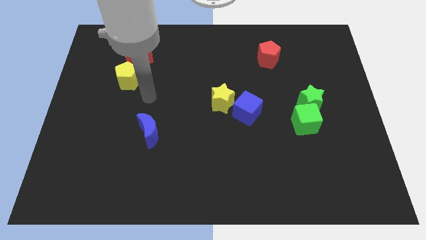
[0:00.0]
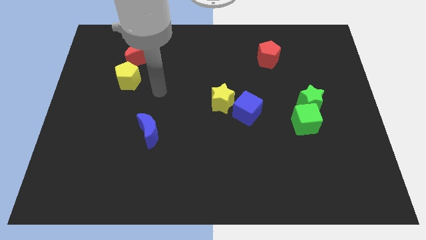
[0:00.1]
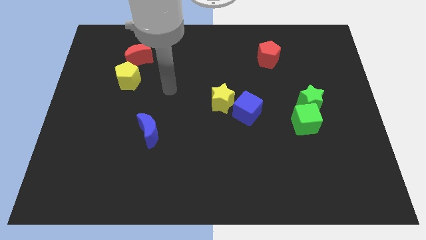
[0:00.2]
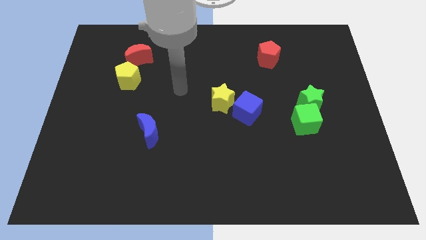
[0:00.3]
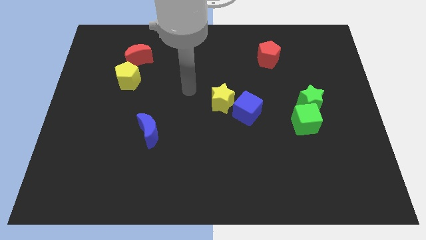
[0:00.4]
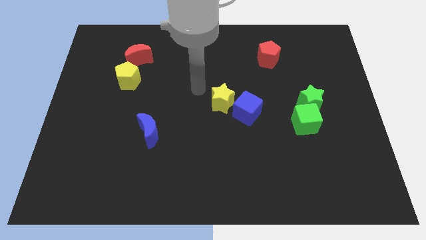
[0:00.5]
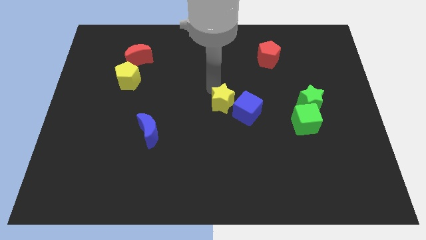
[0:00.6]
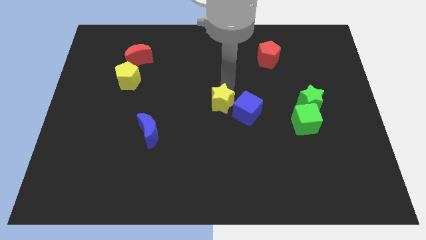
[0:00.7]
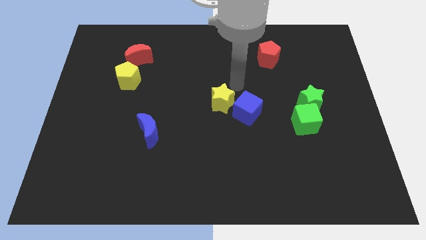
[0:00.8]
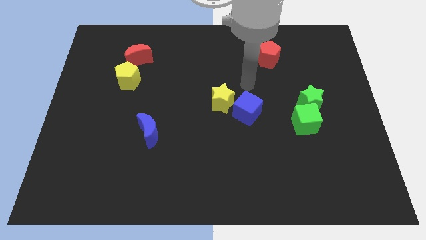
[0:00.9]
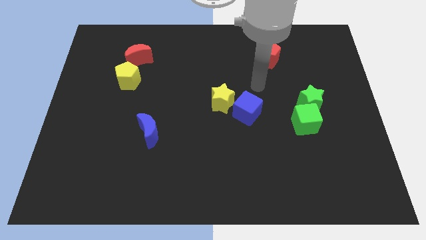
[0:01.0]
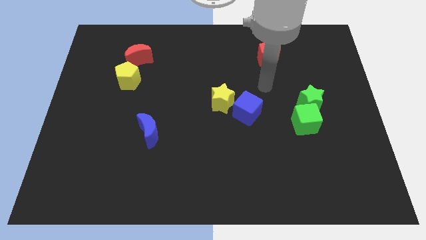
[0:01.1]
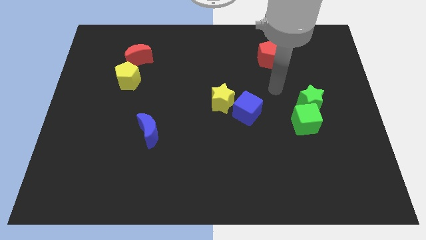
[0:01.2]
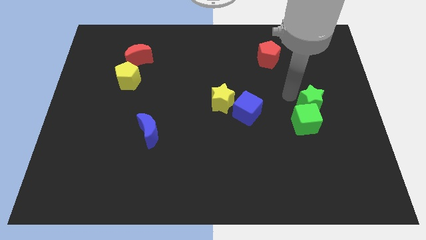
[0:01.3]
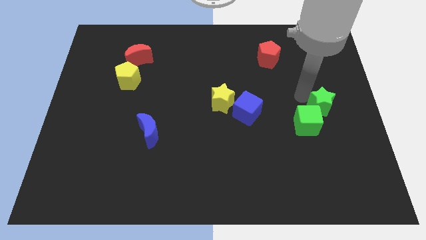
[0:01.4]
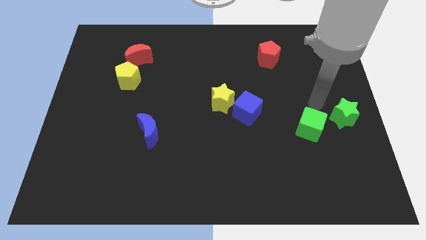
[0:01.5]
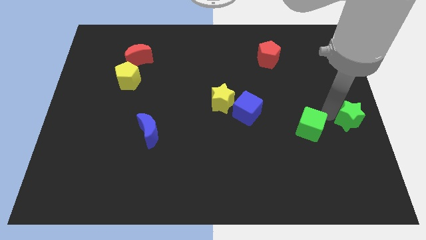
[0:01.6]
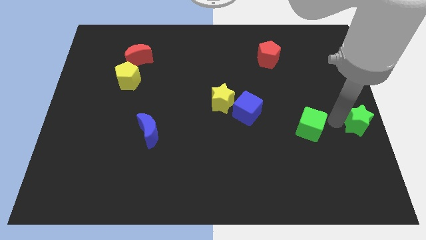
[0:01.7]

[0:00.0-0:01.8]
move the green cube away from the green star

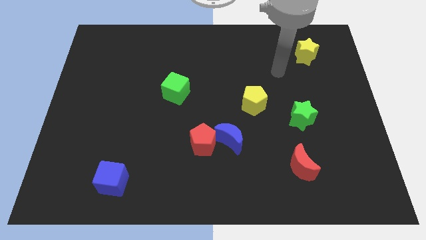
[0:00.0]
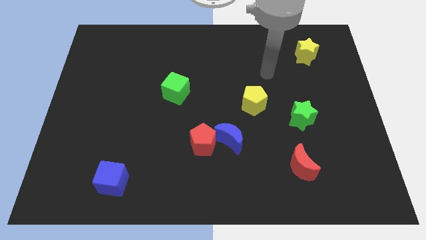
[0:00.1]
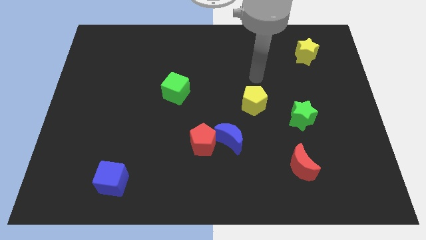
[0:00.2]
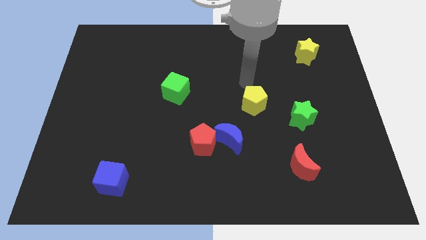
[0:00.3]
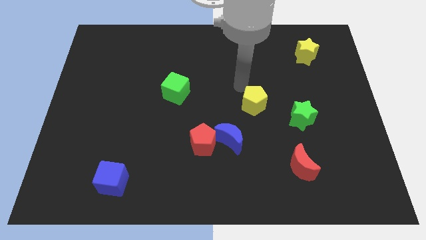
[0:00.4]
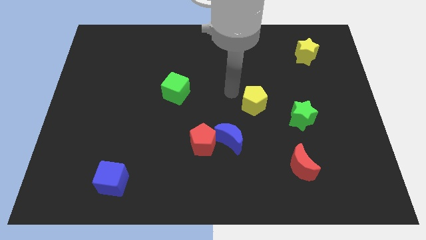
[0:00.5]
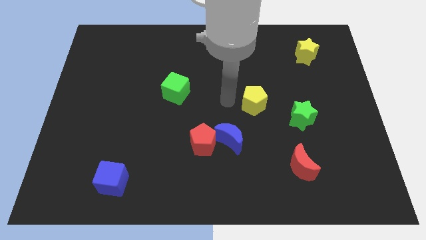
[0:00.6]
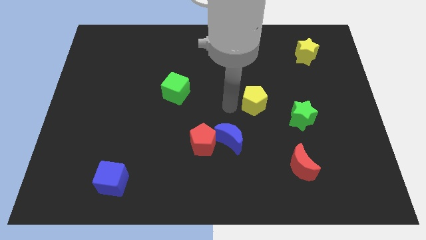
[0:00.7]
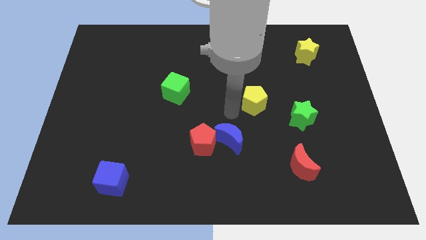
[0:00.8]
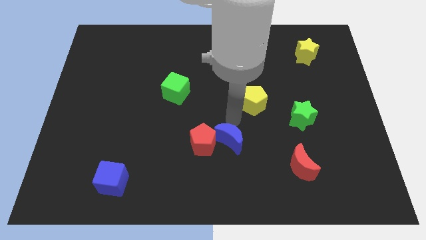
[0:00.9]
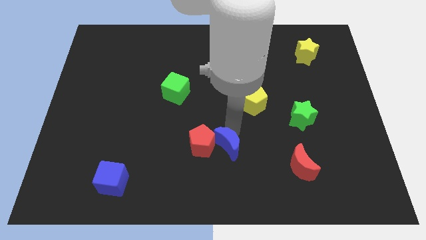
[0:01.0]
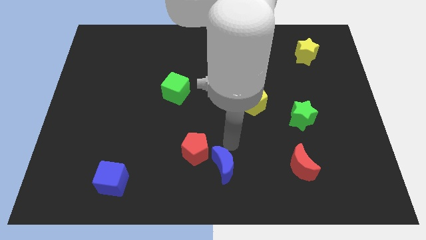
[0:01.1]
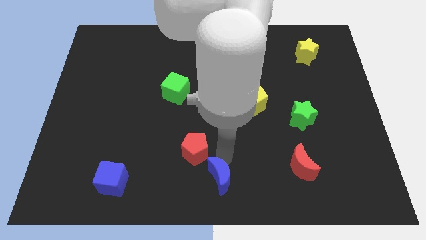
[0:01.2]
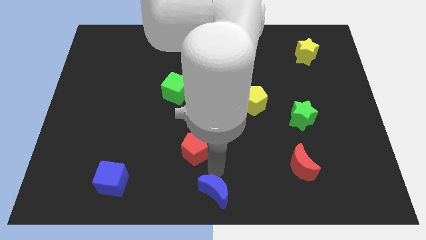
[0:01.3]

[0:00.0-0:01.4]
move the red pentagon away from the blue moon

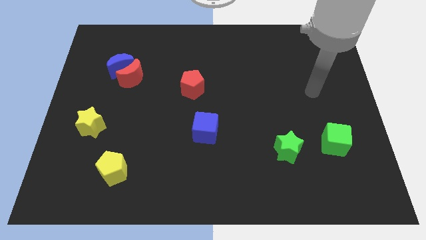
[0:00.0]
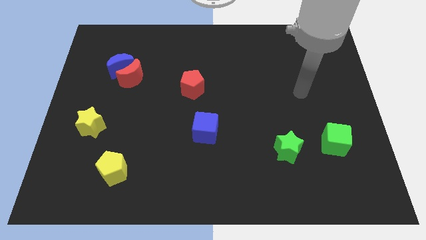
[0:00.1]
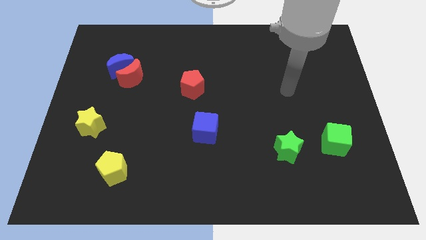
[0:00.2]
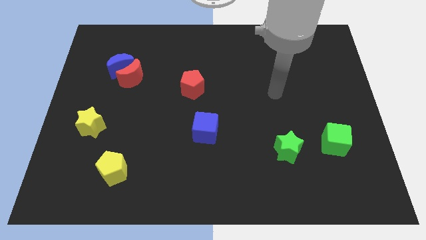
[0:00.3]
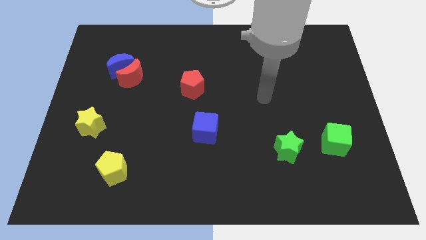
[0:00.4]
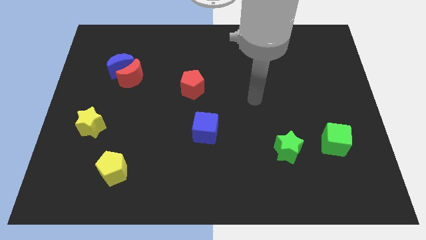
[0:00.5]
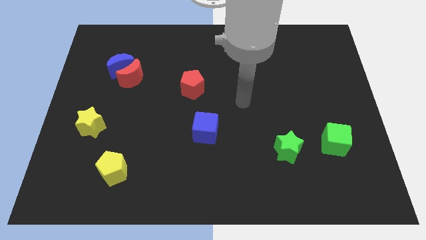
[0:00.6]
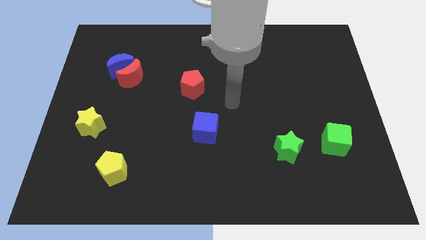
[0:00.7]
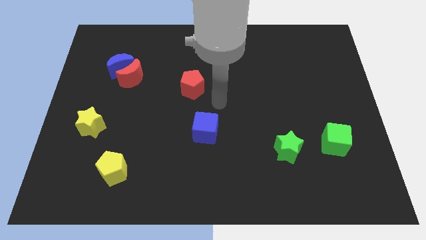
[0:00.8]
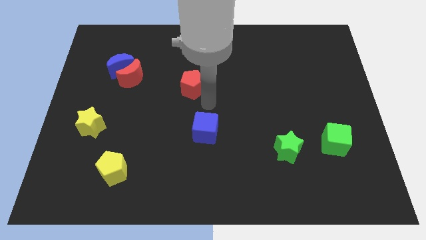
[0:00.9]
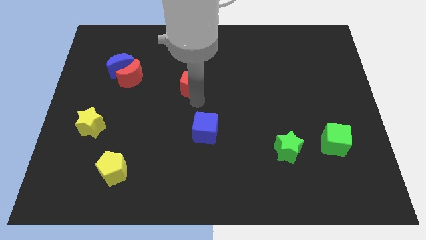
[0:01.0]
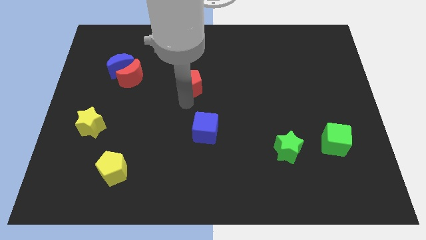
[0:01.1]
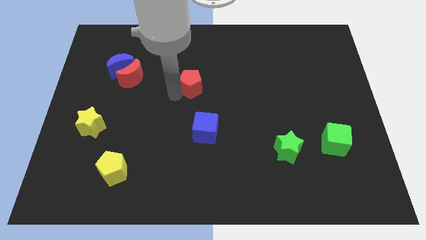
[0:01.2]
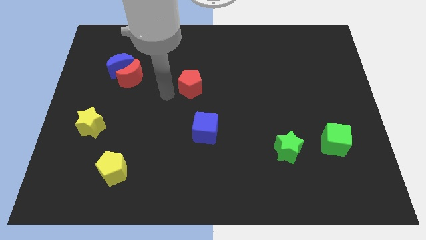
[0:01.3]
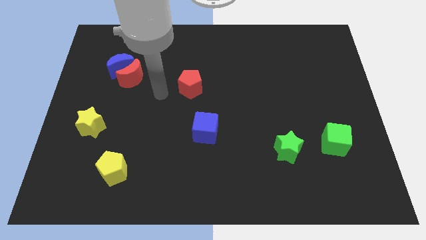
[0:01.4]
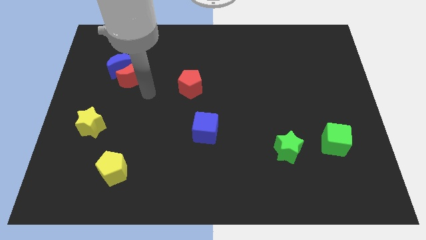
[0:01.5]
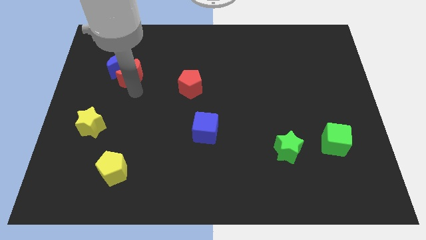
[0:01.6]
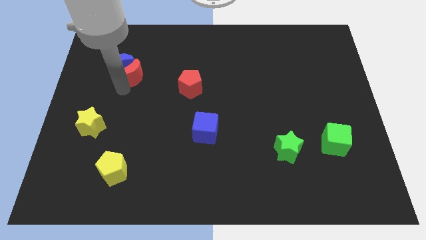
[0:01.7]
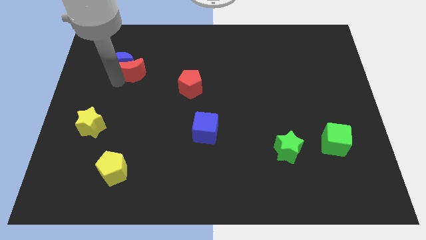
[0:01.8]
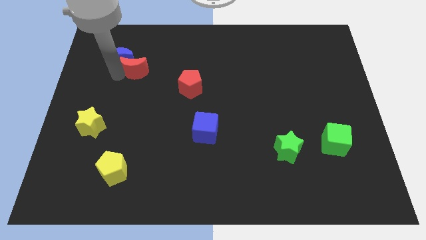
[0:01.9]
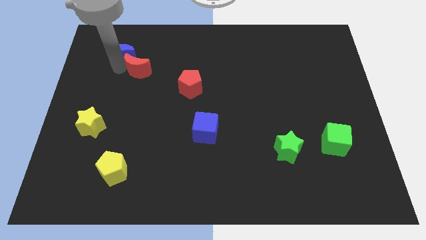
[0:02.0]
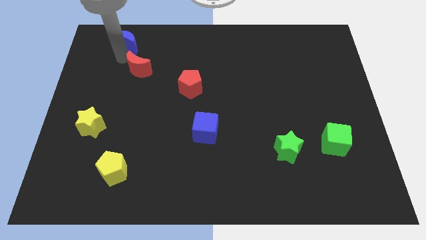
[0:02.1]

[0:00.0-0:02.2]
separate the red moon from the blue moon

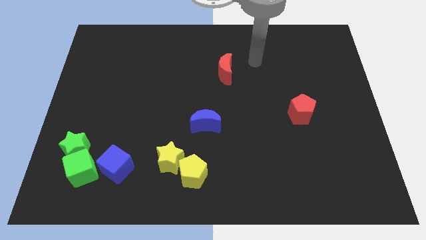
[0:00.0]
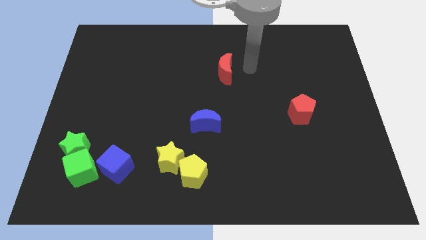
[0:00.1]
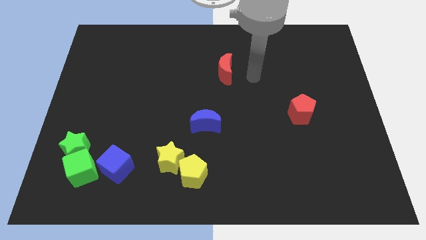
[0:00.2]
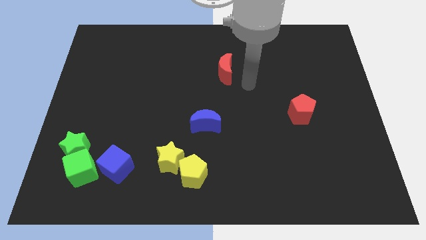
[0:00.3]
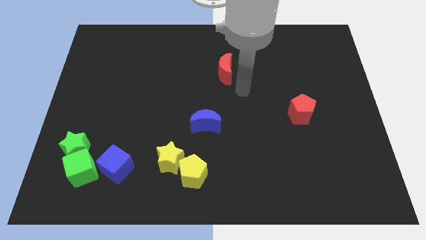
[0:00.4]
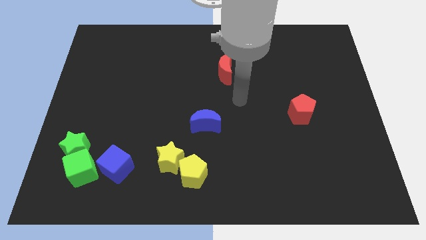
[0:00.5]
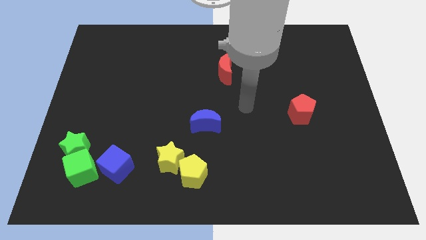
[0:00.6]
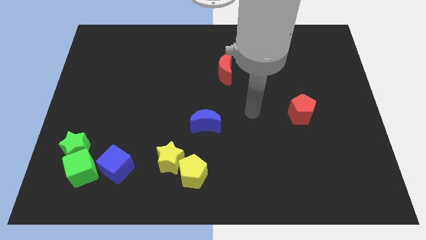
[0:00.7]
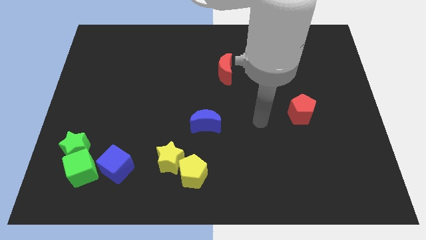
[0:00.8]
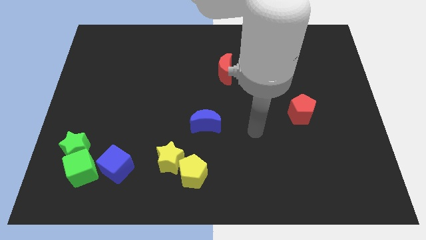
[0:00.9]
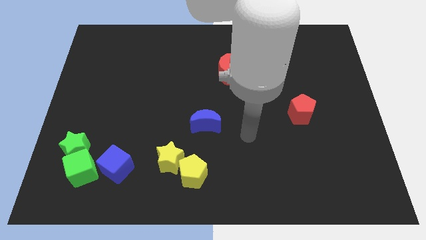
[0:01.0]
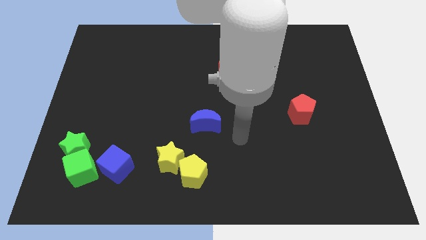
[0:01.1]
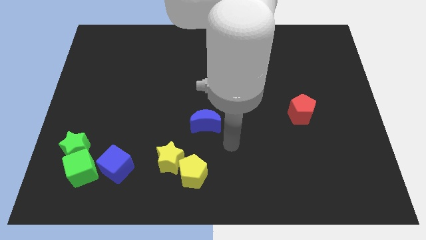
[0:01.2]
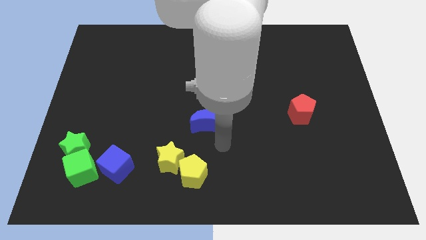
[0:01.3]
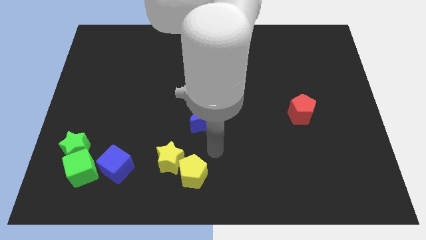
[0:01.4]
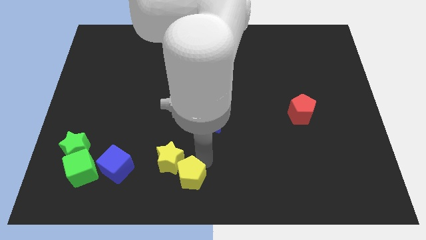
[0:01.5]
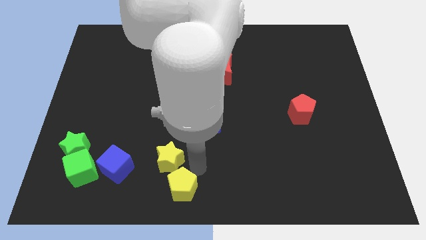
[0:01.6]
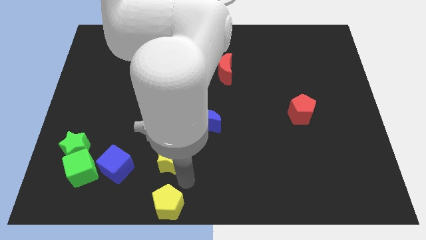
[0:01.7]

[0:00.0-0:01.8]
move the yellow star away from the yellow pentagon

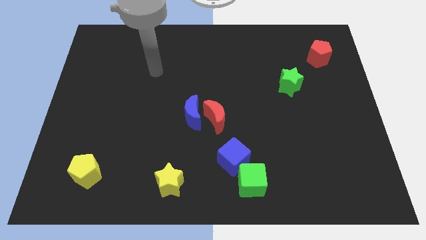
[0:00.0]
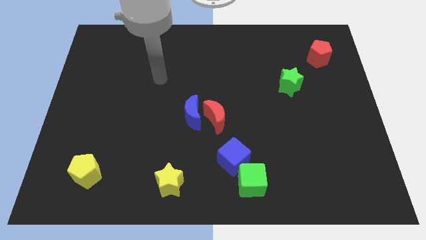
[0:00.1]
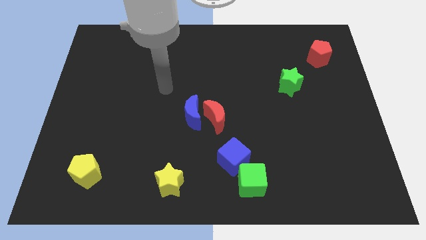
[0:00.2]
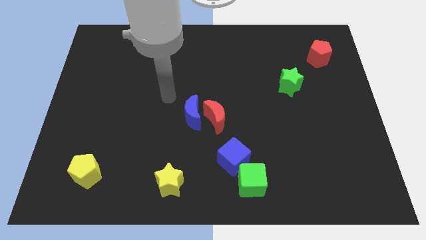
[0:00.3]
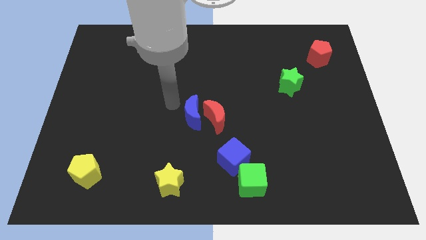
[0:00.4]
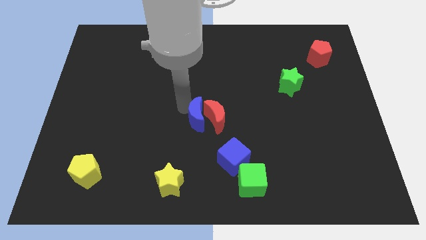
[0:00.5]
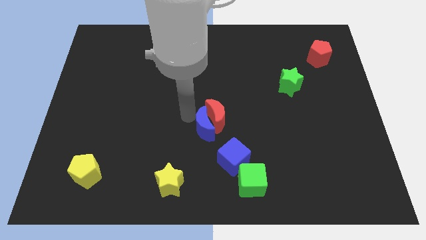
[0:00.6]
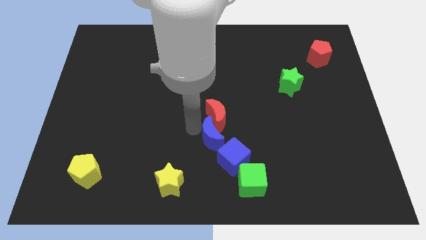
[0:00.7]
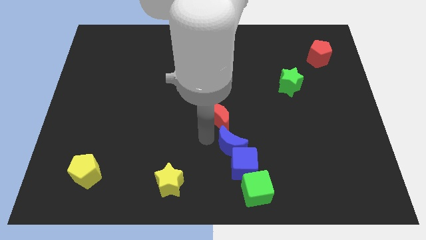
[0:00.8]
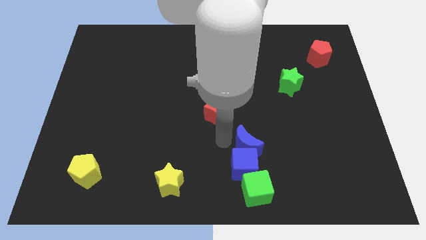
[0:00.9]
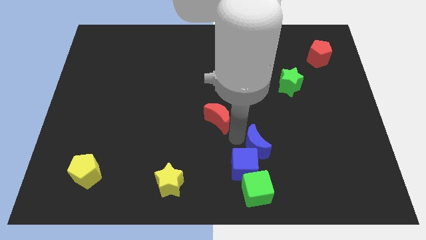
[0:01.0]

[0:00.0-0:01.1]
pull the red moon apart from the blue moon

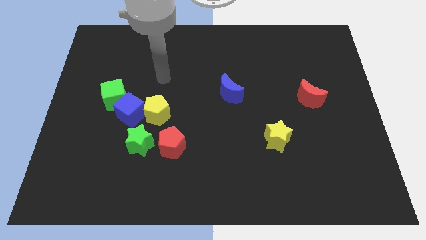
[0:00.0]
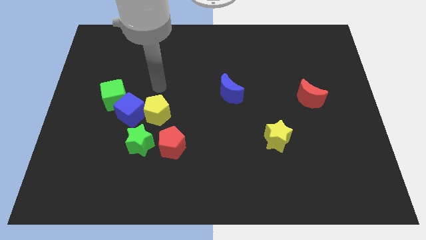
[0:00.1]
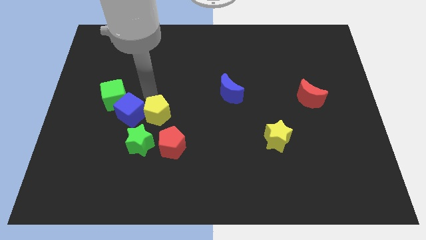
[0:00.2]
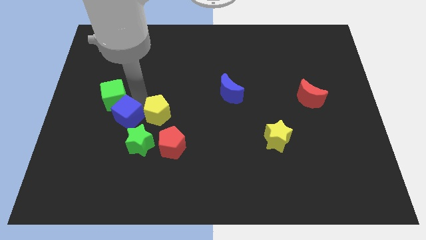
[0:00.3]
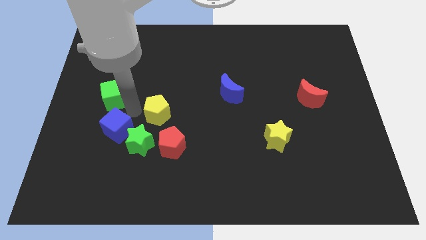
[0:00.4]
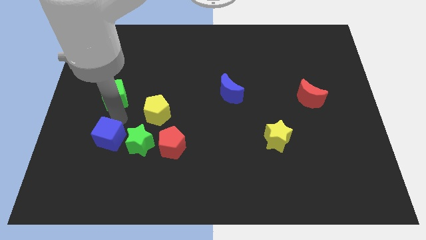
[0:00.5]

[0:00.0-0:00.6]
pull the green cube apart from the blue cube

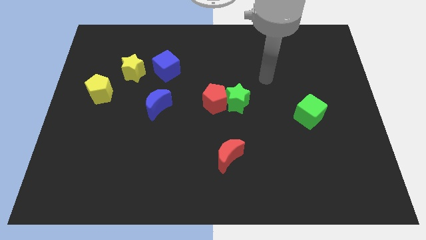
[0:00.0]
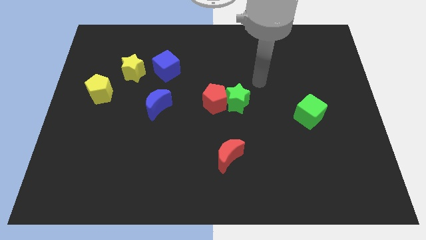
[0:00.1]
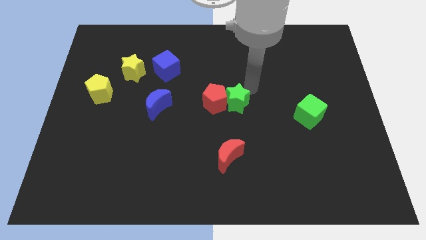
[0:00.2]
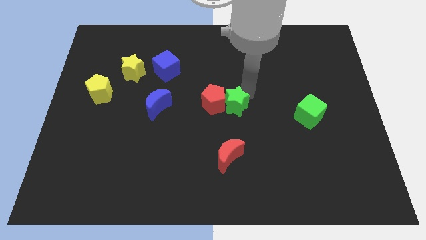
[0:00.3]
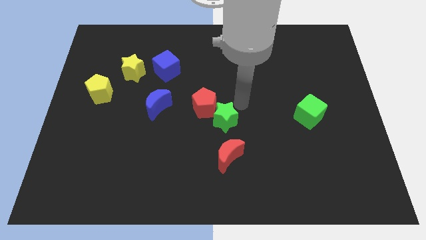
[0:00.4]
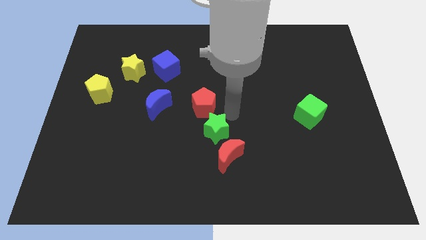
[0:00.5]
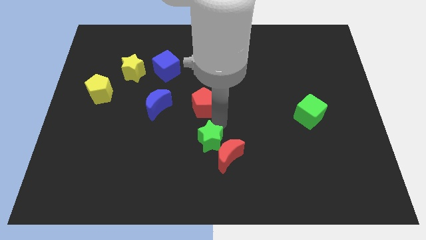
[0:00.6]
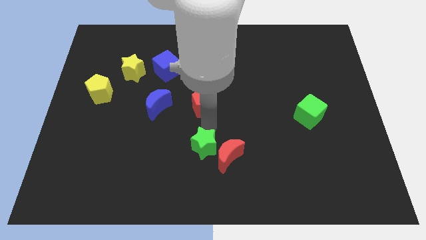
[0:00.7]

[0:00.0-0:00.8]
separate the red pentagon from the green star
